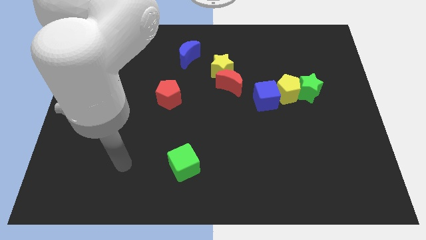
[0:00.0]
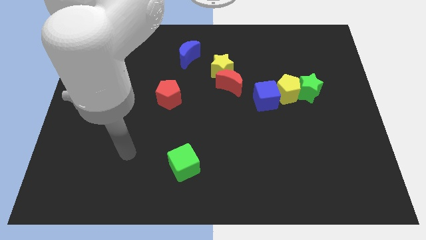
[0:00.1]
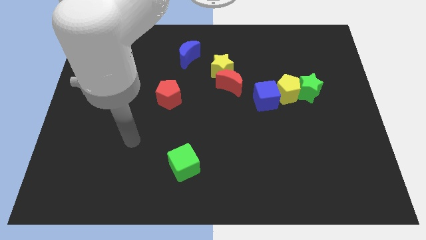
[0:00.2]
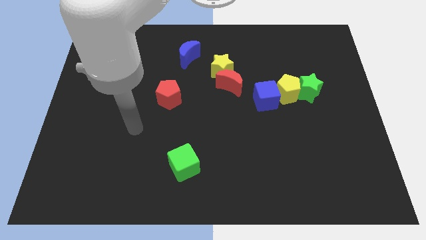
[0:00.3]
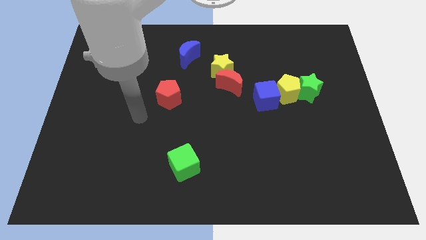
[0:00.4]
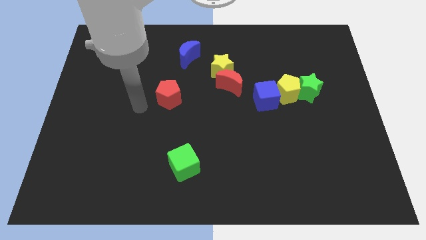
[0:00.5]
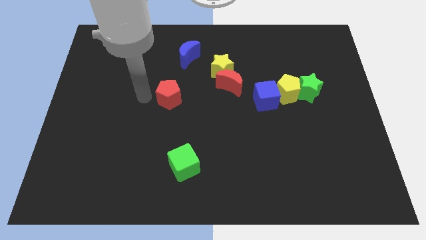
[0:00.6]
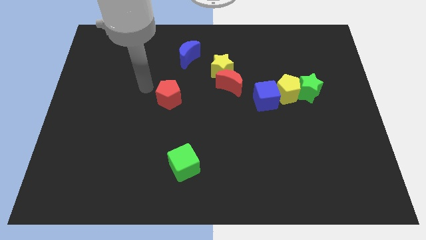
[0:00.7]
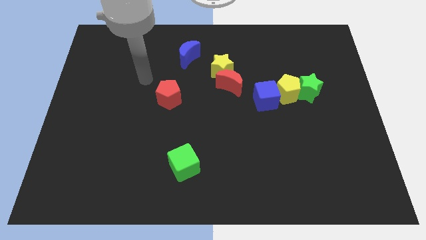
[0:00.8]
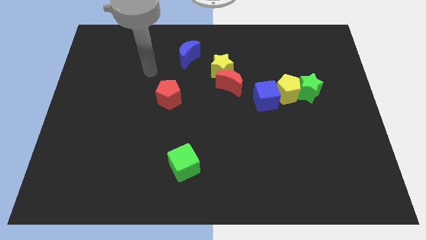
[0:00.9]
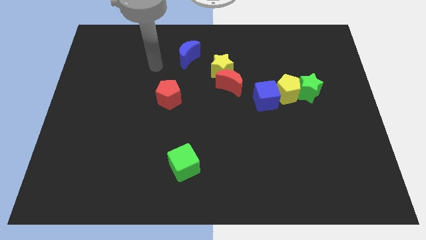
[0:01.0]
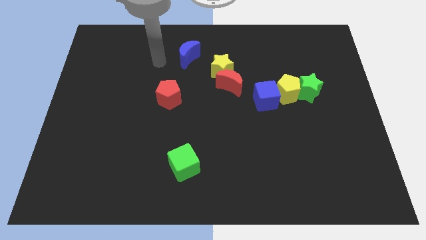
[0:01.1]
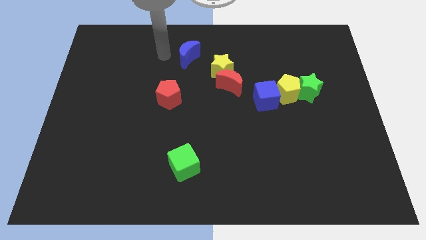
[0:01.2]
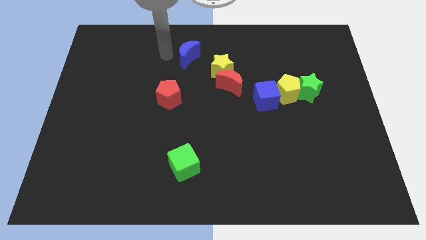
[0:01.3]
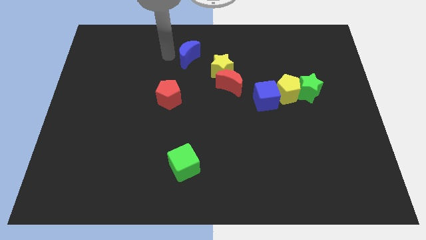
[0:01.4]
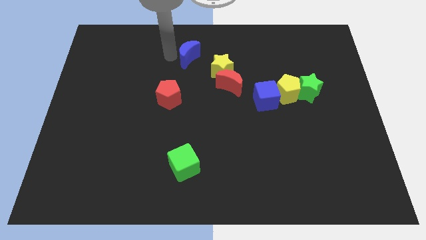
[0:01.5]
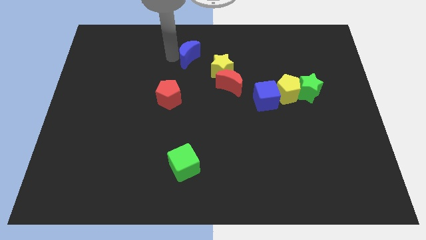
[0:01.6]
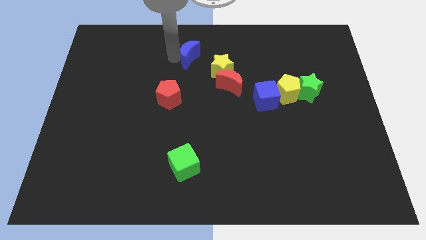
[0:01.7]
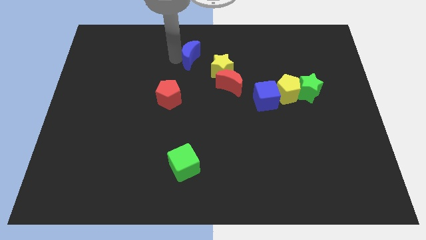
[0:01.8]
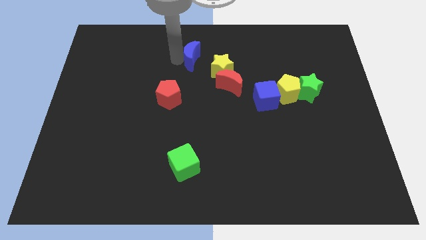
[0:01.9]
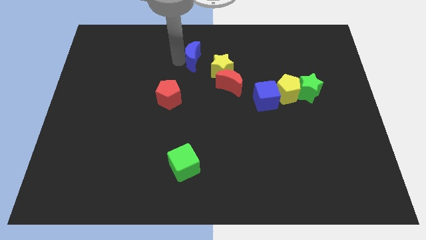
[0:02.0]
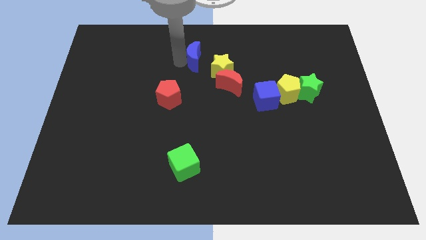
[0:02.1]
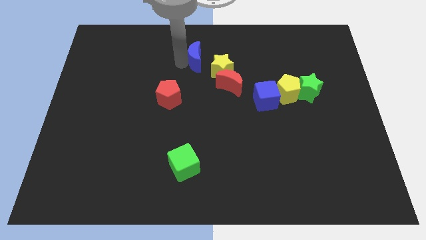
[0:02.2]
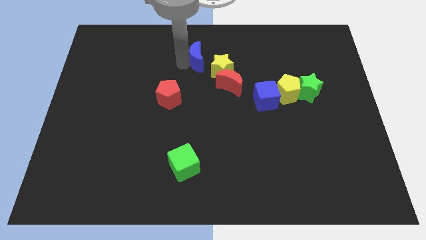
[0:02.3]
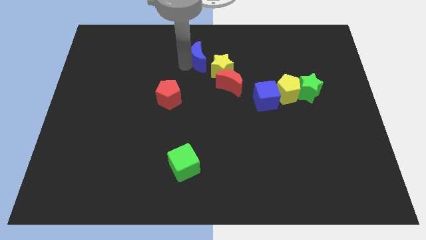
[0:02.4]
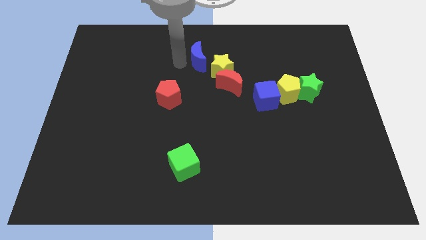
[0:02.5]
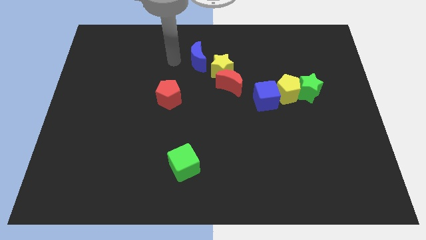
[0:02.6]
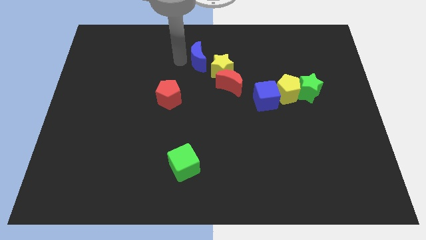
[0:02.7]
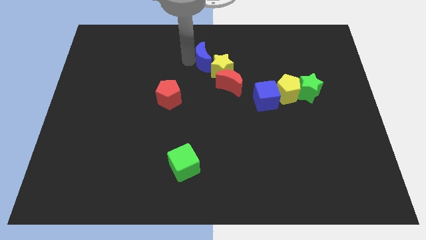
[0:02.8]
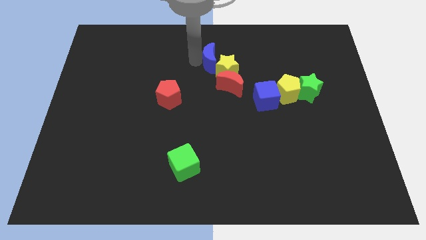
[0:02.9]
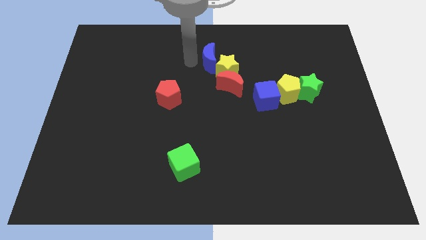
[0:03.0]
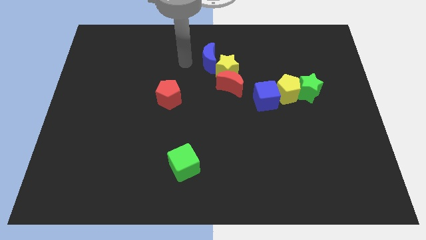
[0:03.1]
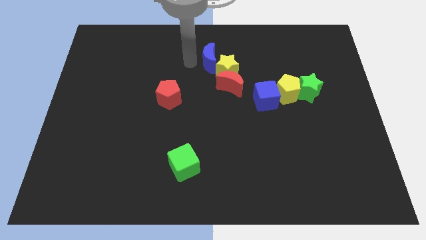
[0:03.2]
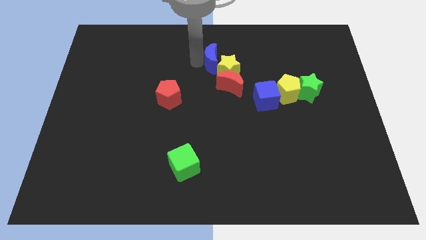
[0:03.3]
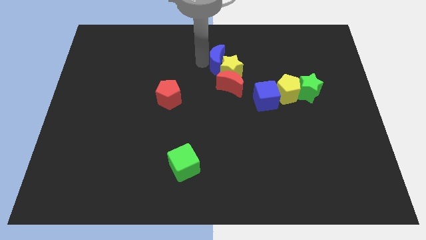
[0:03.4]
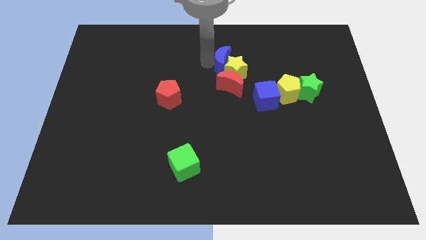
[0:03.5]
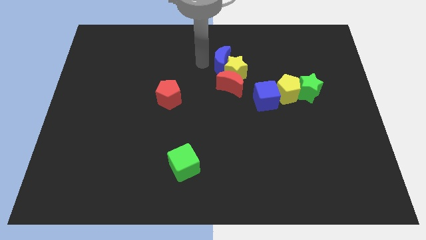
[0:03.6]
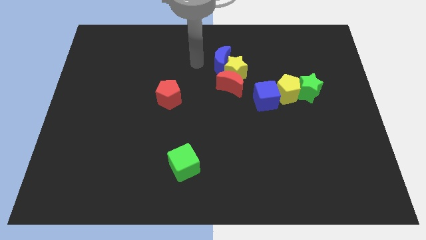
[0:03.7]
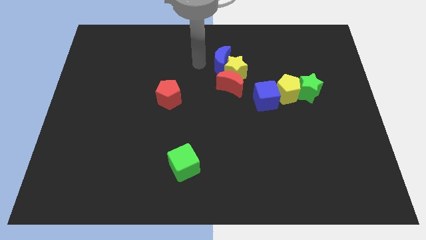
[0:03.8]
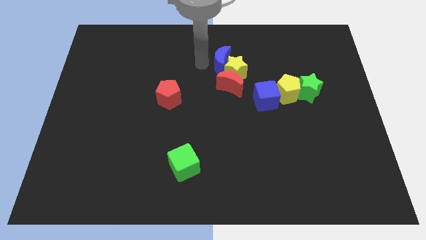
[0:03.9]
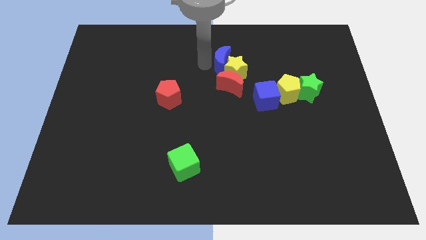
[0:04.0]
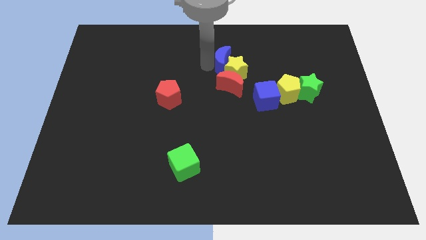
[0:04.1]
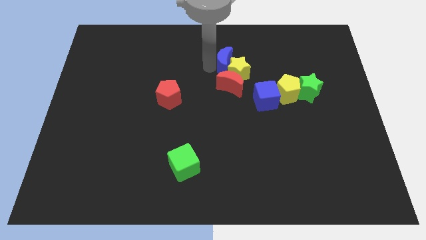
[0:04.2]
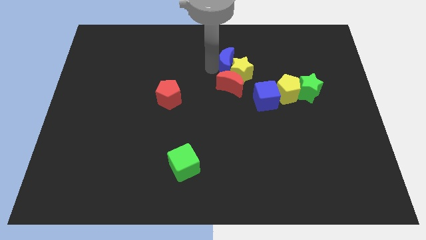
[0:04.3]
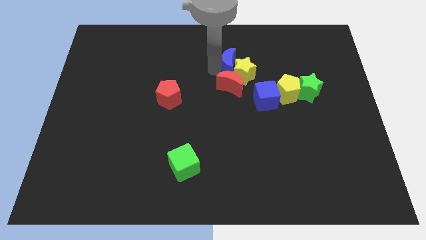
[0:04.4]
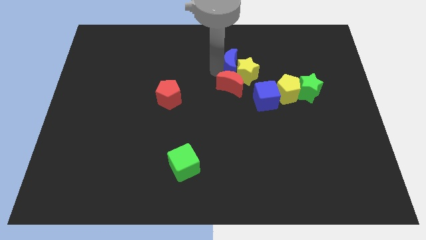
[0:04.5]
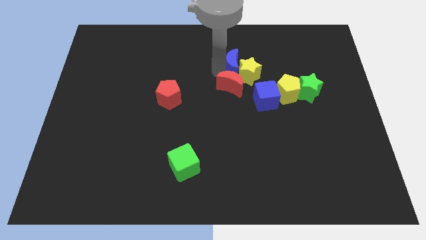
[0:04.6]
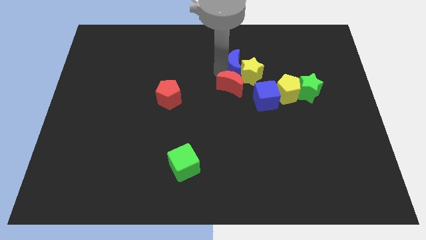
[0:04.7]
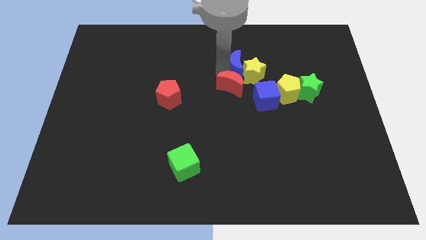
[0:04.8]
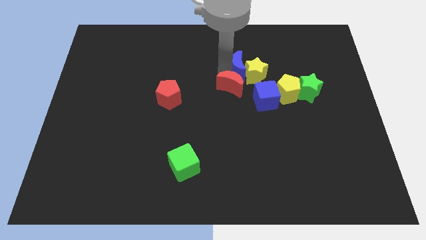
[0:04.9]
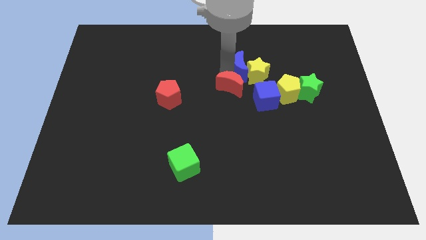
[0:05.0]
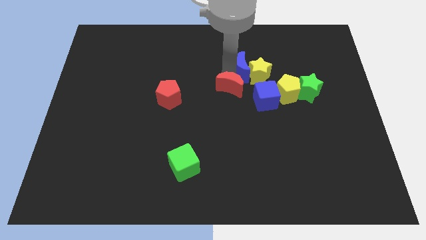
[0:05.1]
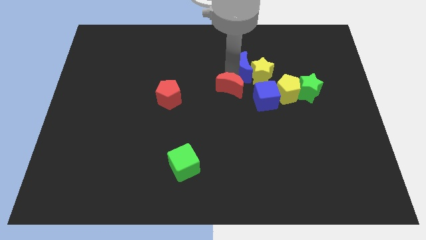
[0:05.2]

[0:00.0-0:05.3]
put the blue moon to the top of the blue cube

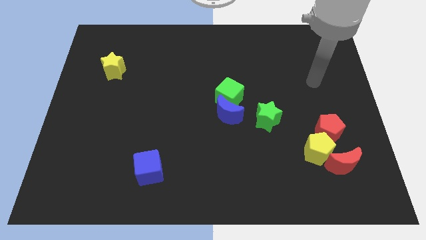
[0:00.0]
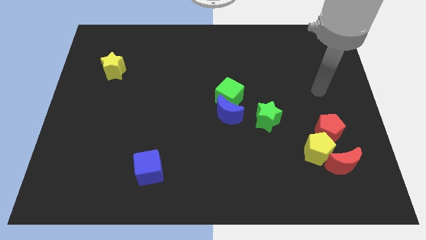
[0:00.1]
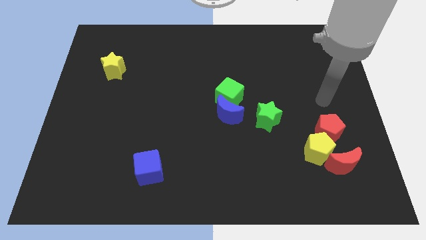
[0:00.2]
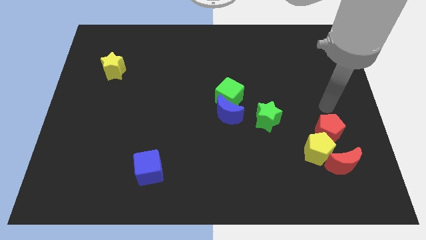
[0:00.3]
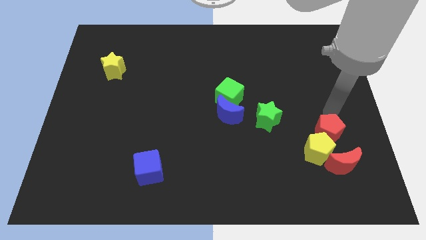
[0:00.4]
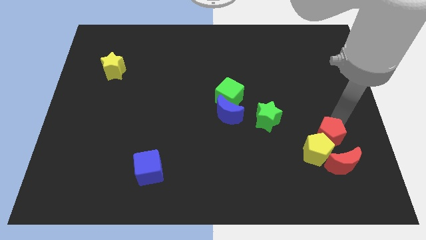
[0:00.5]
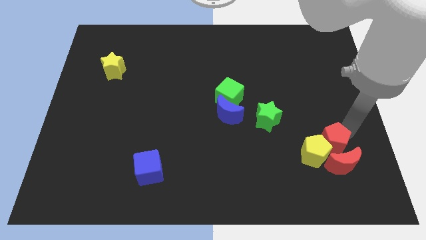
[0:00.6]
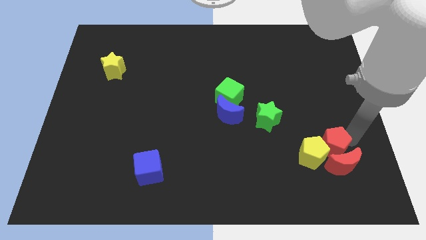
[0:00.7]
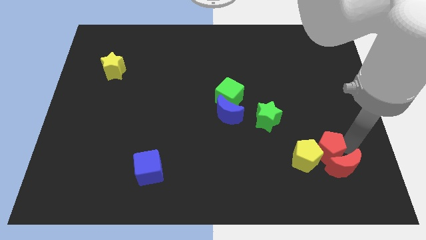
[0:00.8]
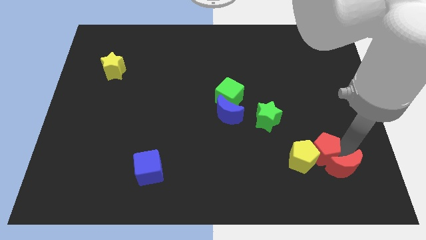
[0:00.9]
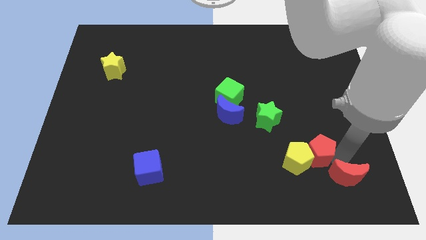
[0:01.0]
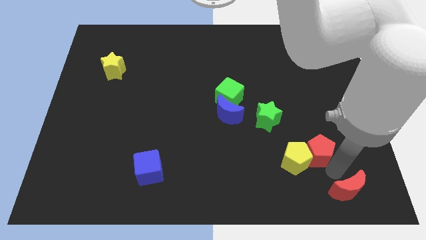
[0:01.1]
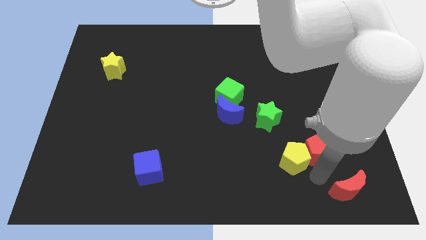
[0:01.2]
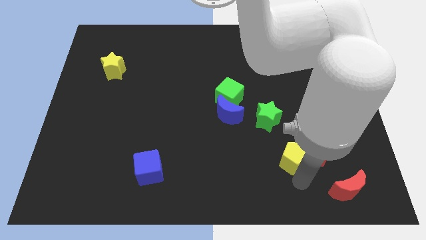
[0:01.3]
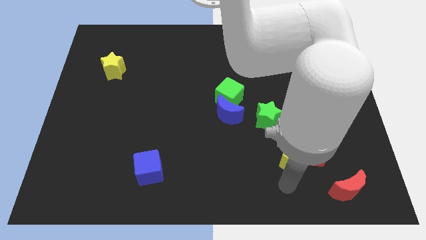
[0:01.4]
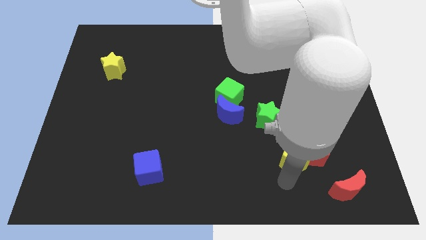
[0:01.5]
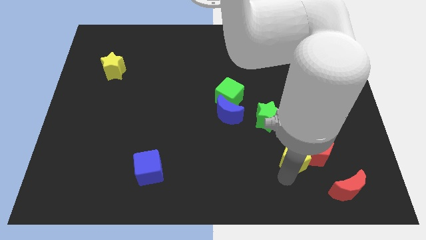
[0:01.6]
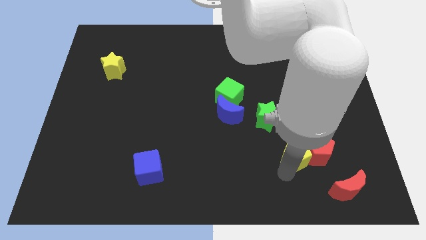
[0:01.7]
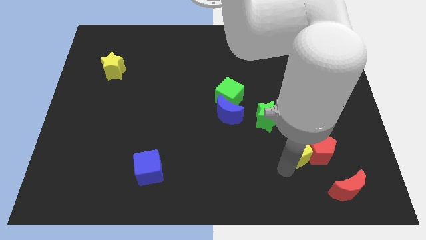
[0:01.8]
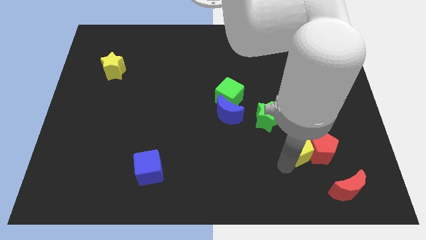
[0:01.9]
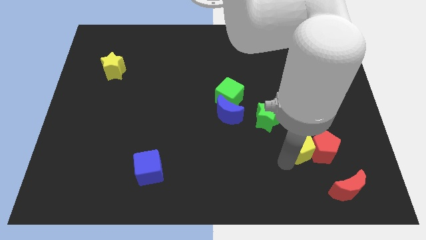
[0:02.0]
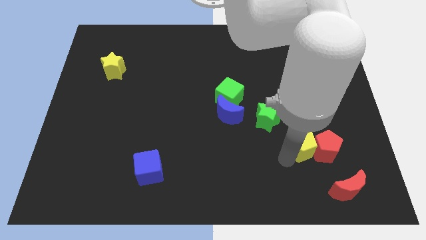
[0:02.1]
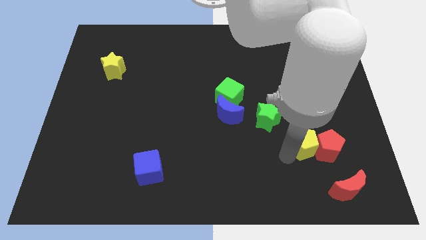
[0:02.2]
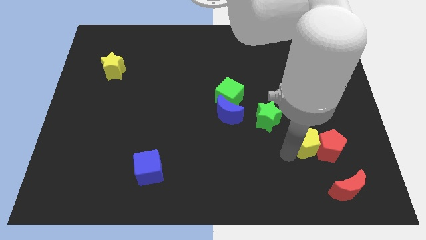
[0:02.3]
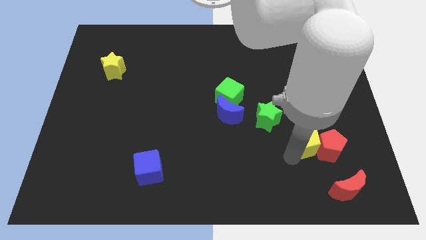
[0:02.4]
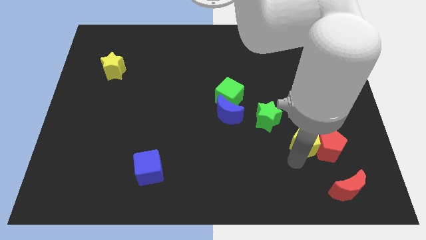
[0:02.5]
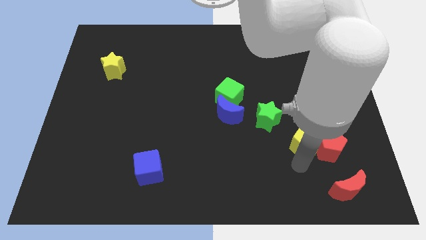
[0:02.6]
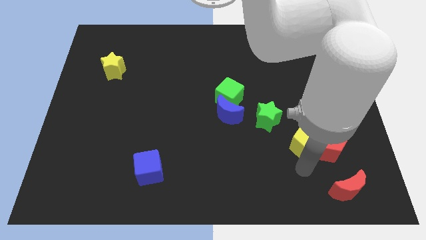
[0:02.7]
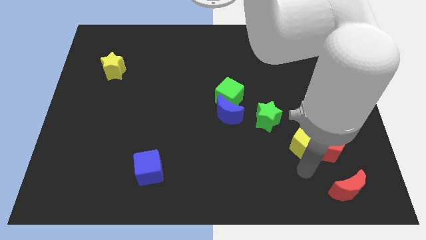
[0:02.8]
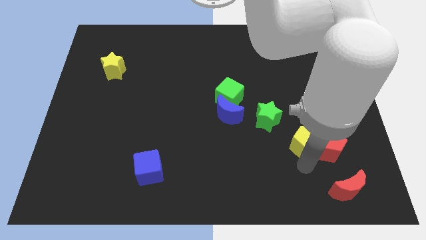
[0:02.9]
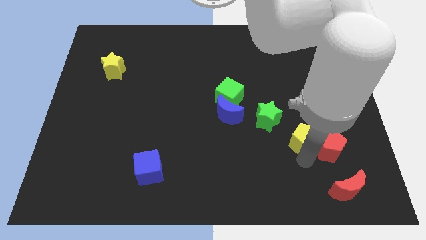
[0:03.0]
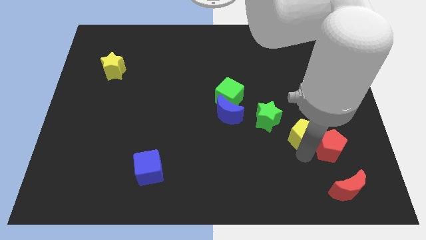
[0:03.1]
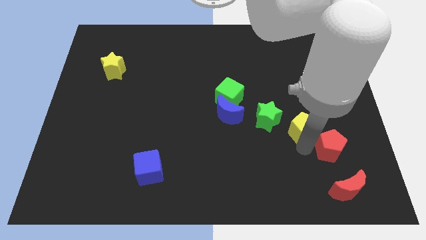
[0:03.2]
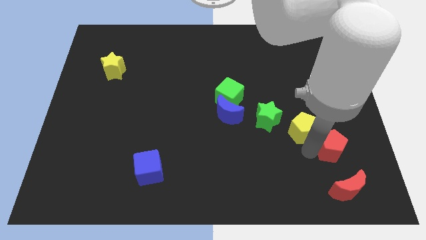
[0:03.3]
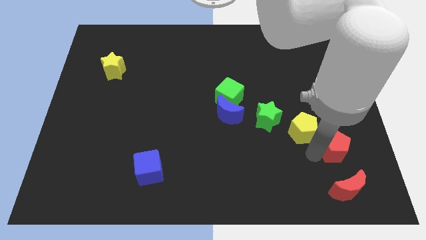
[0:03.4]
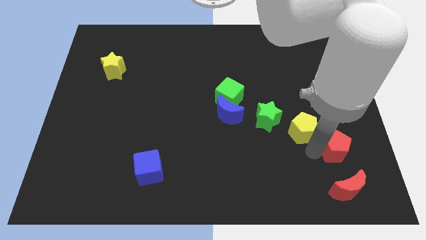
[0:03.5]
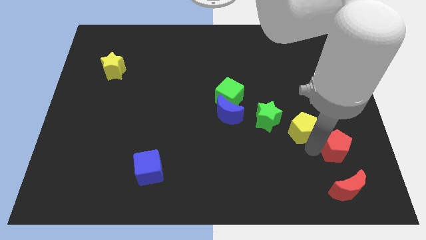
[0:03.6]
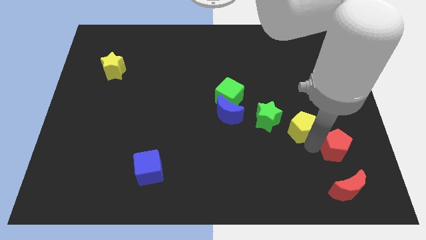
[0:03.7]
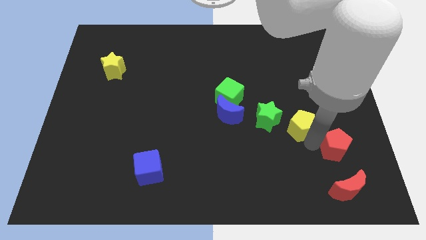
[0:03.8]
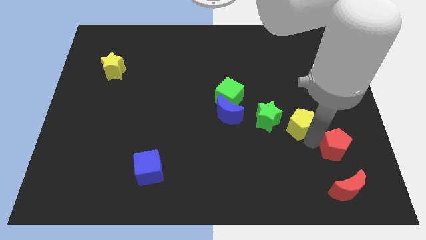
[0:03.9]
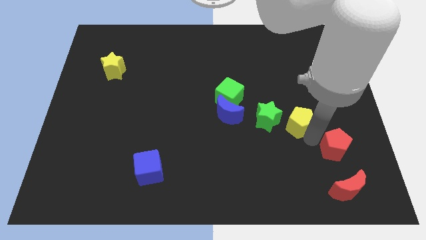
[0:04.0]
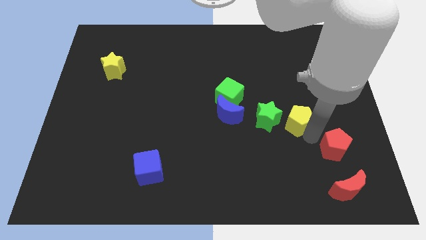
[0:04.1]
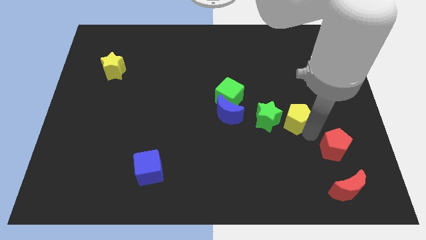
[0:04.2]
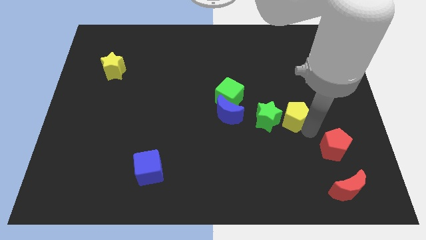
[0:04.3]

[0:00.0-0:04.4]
push the yellow pentagon to the top right of the green star
